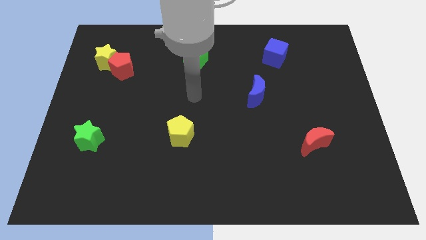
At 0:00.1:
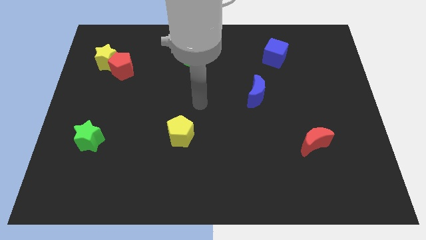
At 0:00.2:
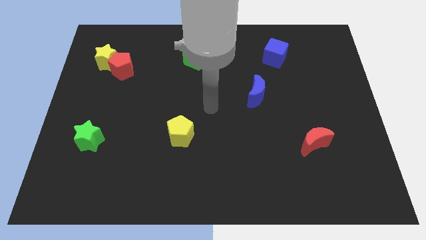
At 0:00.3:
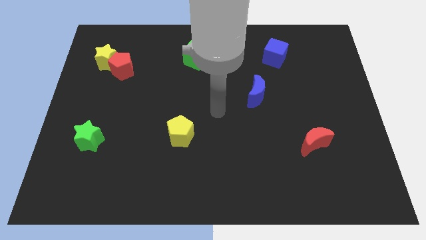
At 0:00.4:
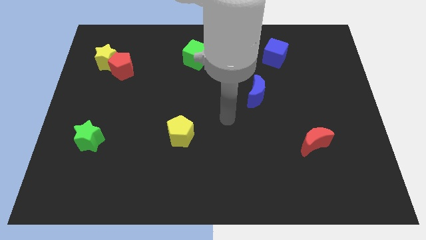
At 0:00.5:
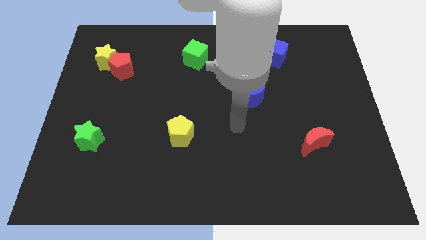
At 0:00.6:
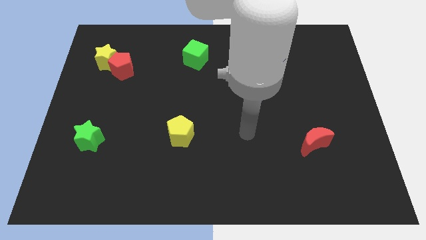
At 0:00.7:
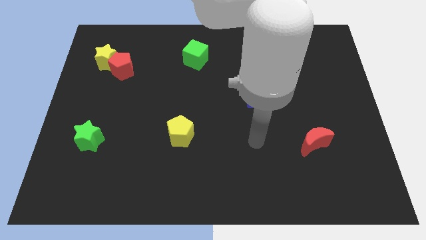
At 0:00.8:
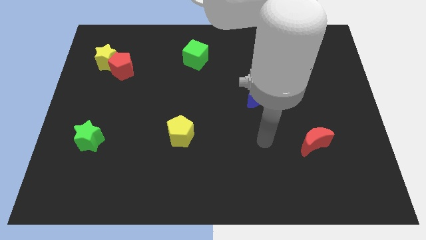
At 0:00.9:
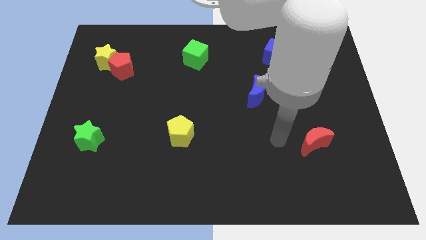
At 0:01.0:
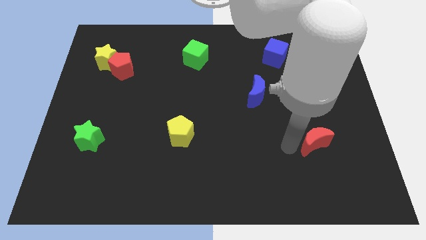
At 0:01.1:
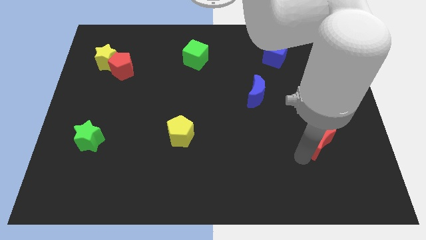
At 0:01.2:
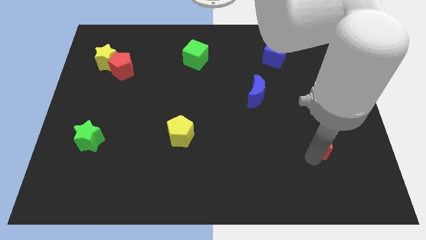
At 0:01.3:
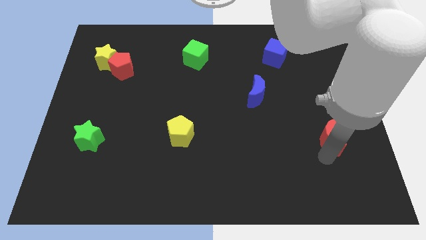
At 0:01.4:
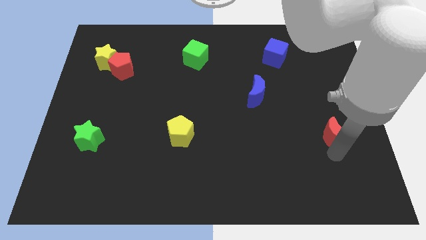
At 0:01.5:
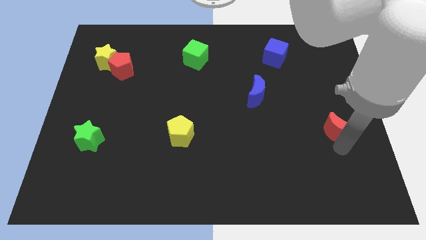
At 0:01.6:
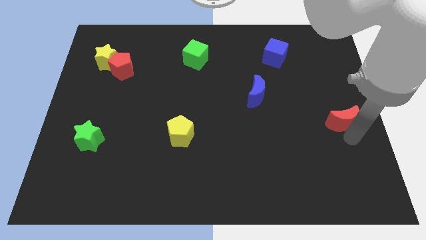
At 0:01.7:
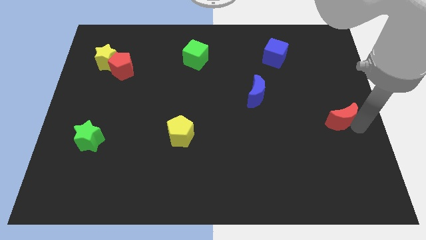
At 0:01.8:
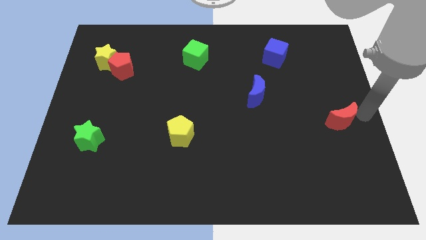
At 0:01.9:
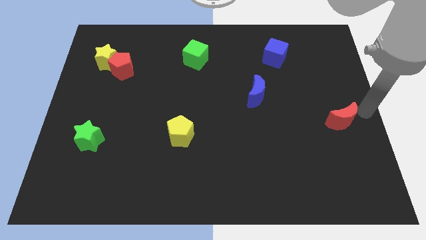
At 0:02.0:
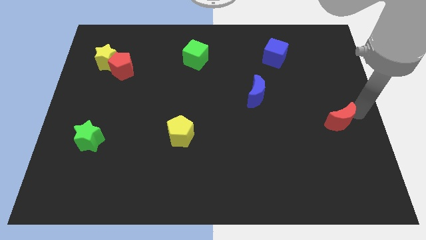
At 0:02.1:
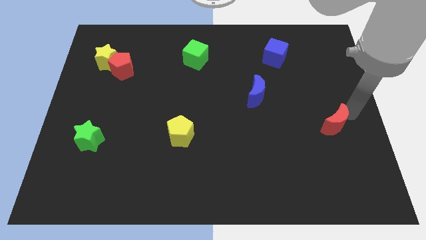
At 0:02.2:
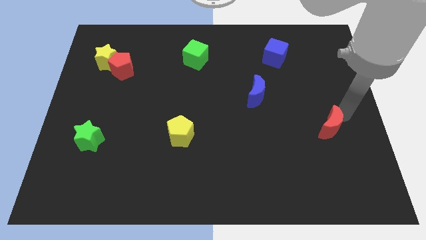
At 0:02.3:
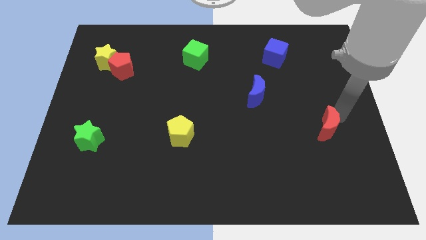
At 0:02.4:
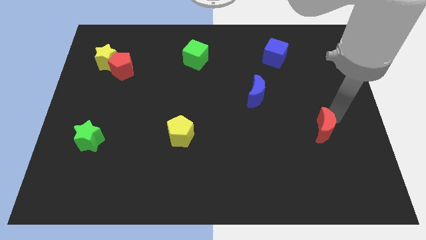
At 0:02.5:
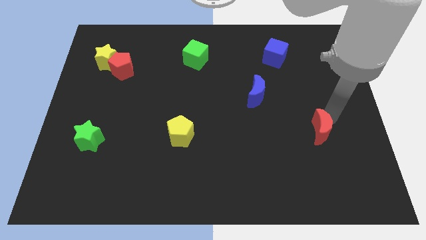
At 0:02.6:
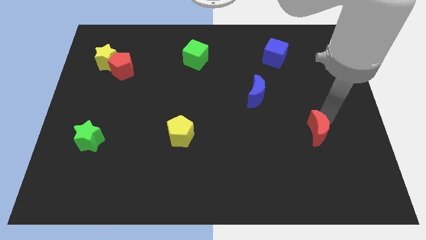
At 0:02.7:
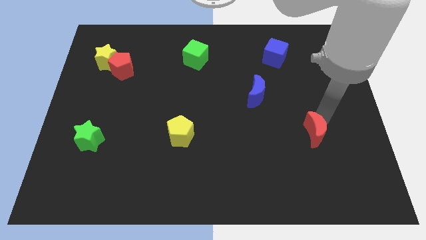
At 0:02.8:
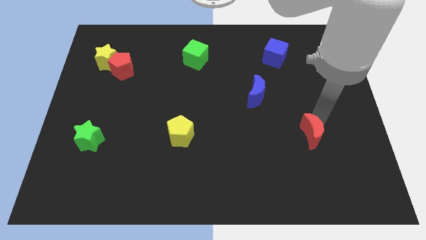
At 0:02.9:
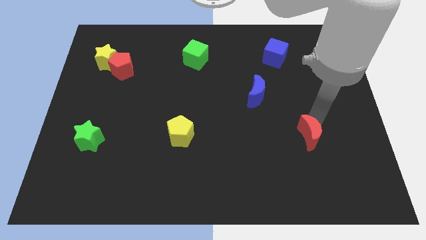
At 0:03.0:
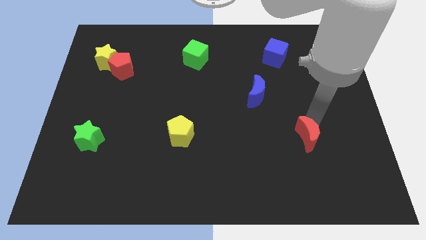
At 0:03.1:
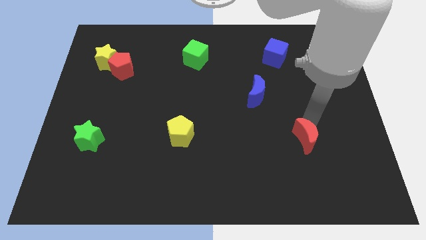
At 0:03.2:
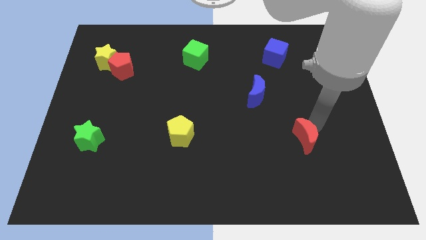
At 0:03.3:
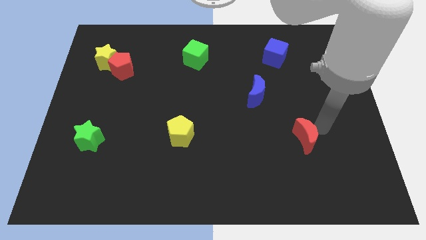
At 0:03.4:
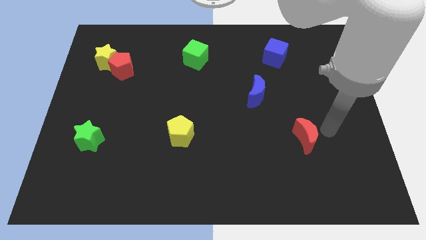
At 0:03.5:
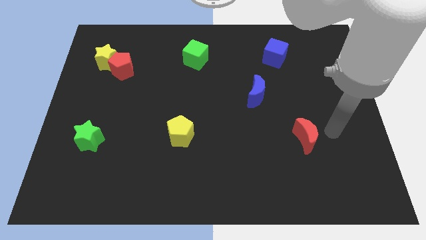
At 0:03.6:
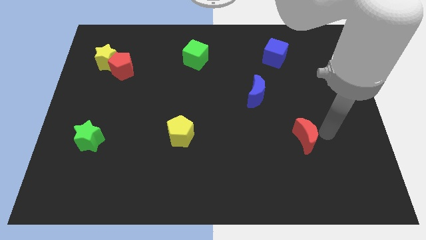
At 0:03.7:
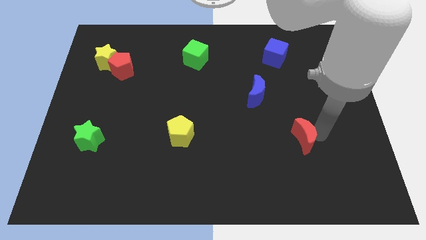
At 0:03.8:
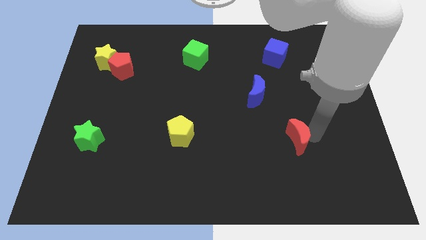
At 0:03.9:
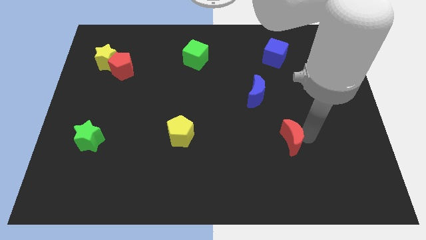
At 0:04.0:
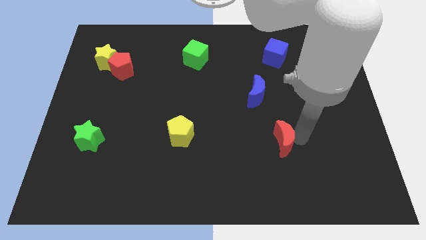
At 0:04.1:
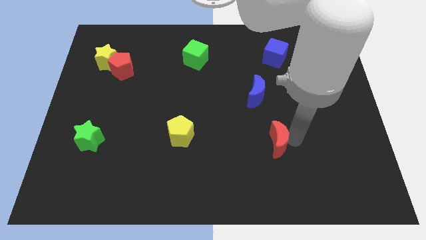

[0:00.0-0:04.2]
slightly push the red moon left

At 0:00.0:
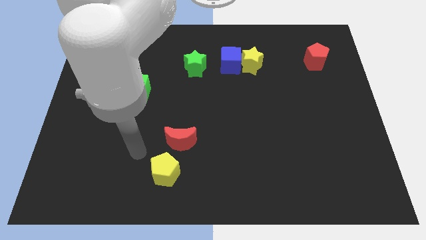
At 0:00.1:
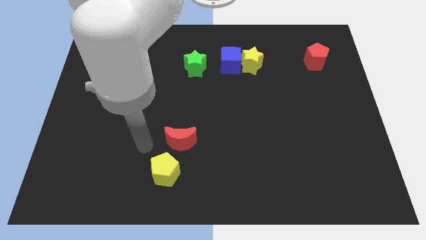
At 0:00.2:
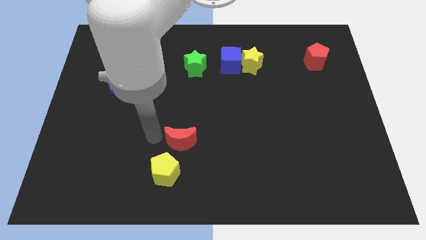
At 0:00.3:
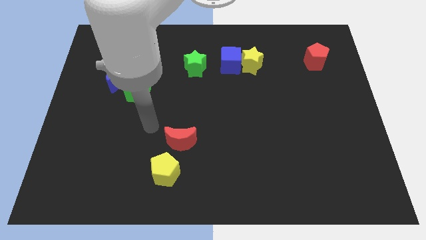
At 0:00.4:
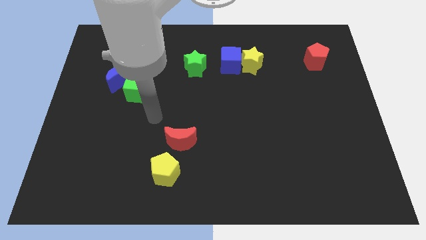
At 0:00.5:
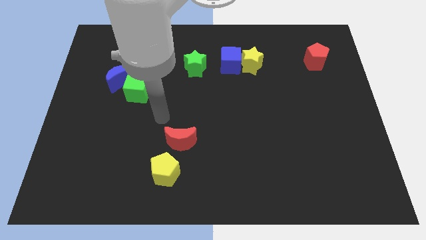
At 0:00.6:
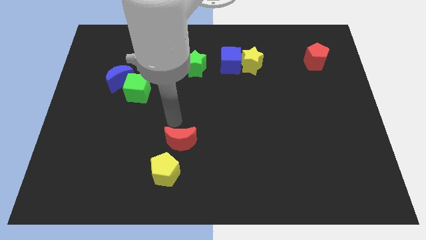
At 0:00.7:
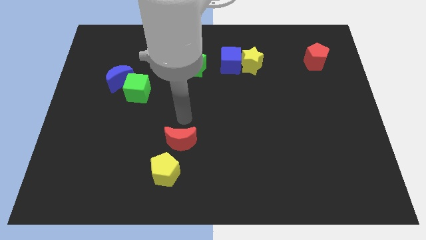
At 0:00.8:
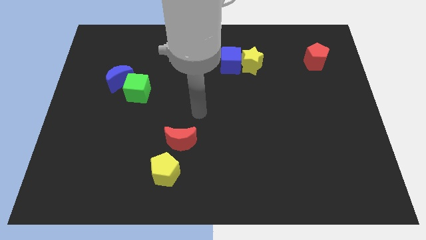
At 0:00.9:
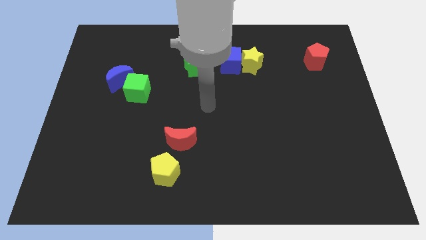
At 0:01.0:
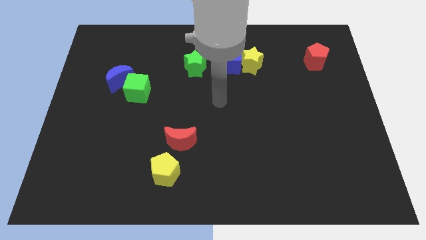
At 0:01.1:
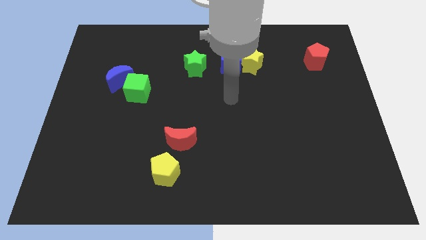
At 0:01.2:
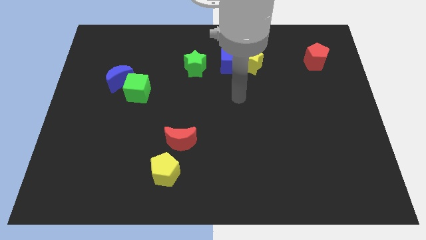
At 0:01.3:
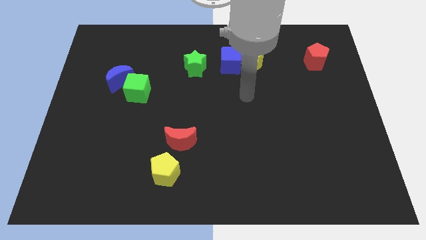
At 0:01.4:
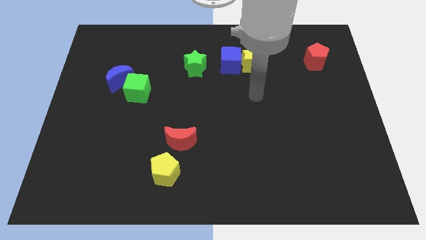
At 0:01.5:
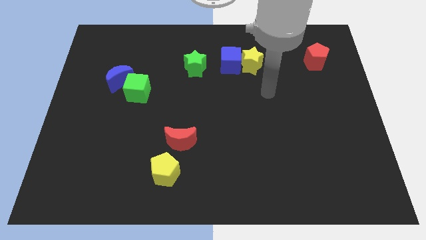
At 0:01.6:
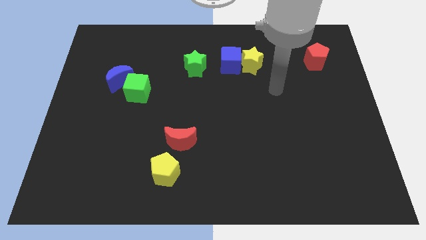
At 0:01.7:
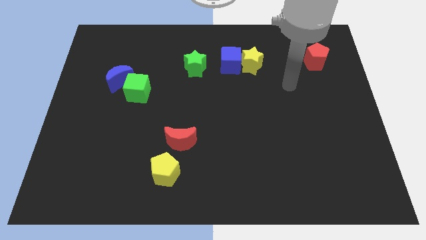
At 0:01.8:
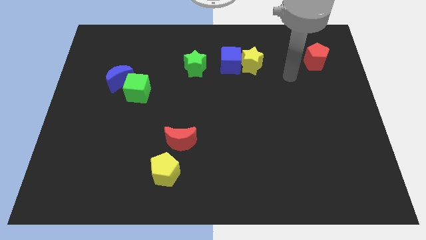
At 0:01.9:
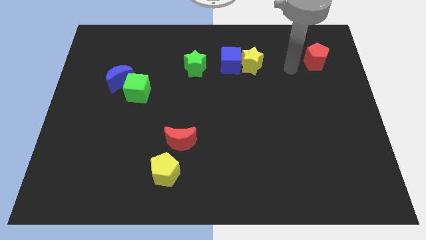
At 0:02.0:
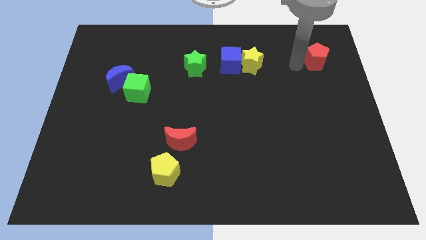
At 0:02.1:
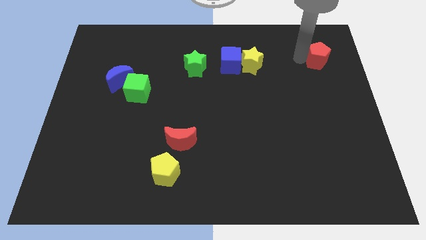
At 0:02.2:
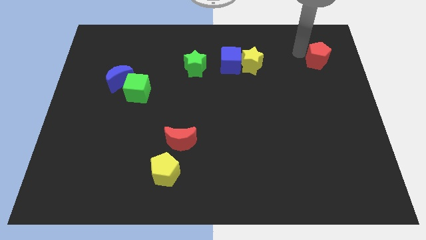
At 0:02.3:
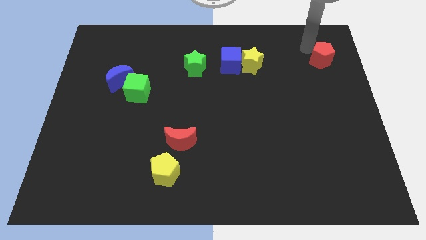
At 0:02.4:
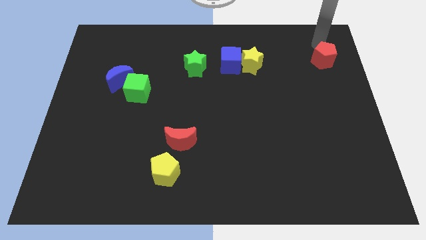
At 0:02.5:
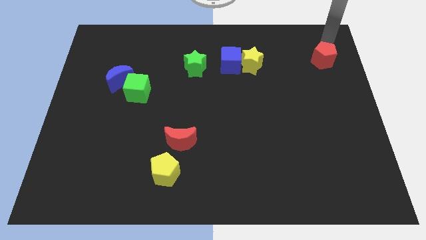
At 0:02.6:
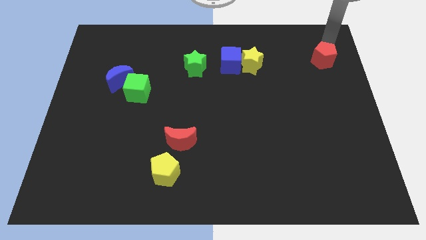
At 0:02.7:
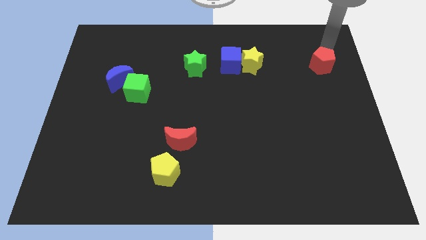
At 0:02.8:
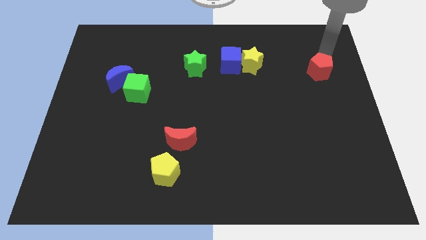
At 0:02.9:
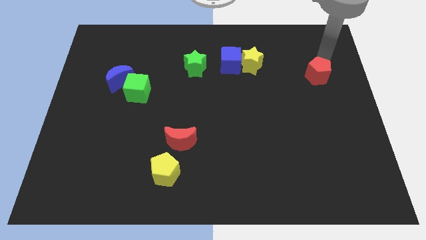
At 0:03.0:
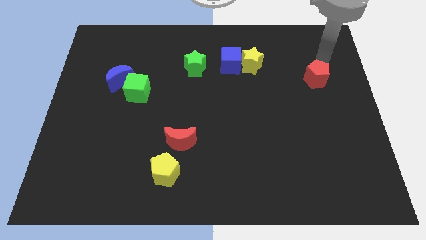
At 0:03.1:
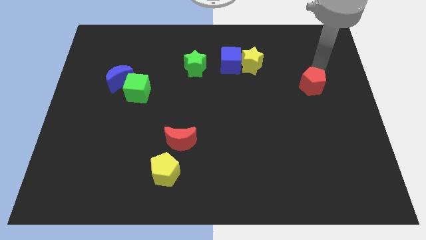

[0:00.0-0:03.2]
slightly move the red pentagon down

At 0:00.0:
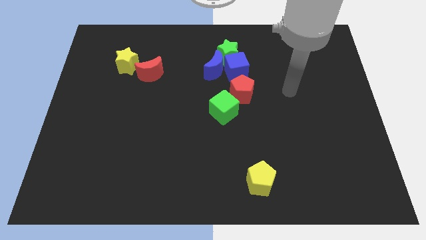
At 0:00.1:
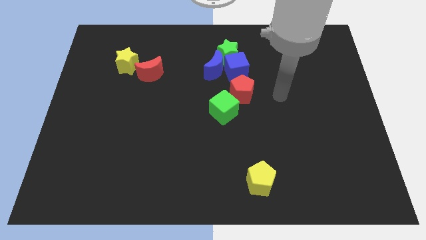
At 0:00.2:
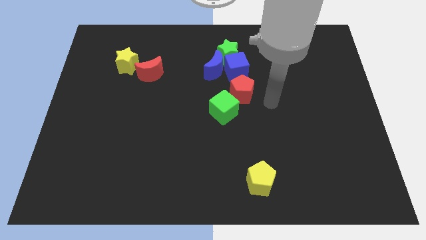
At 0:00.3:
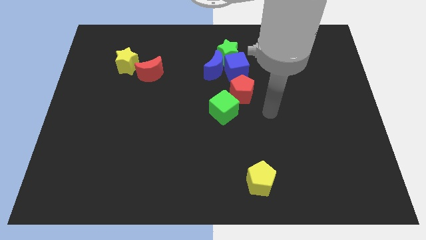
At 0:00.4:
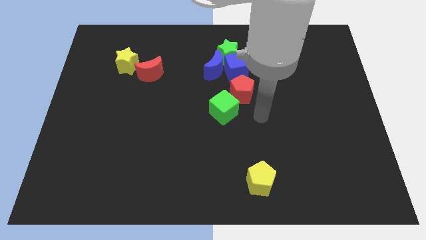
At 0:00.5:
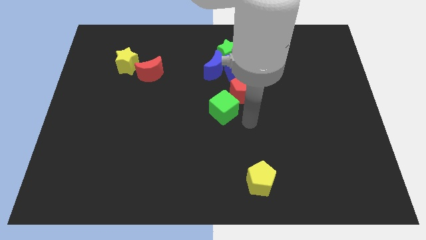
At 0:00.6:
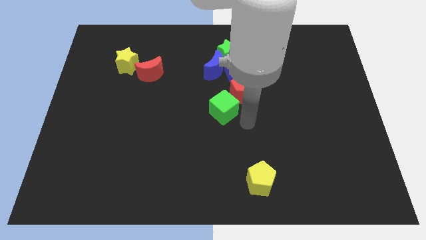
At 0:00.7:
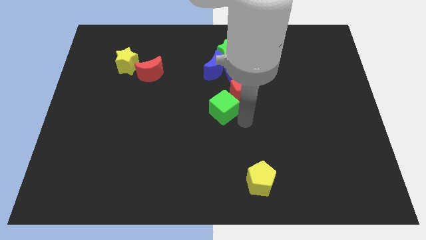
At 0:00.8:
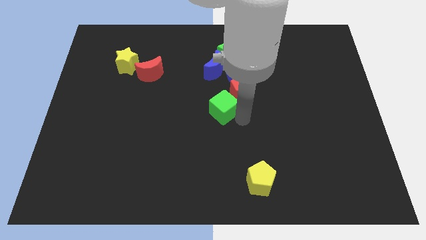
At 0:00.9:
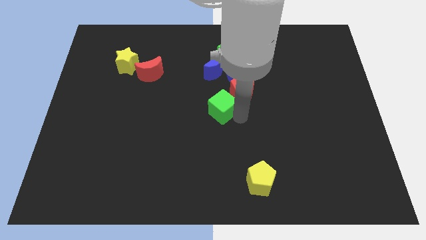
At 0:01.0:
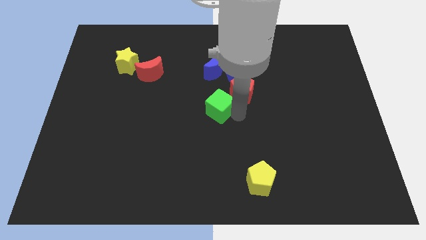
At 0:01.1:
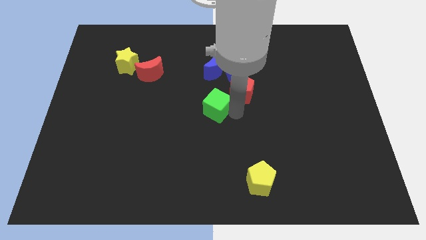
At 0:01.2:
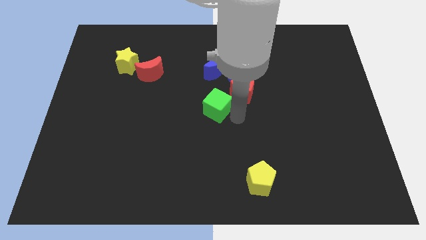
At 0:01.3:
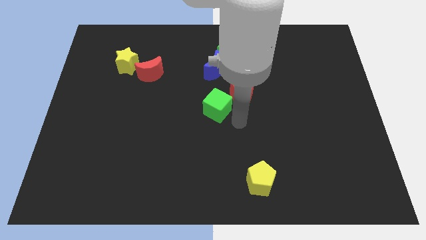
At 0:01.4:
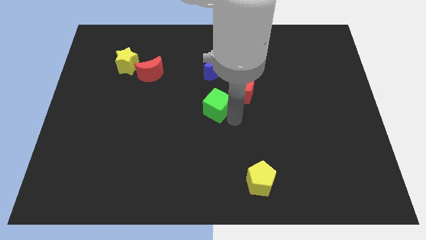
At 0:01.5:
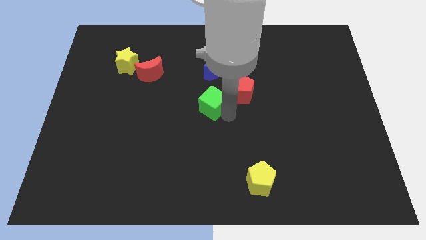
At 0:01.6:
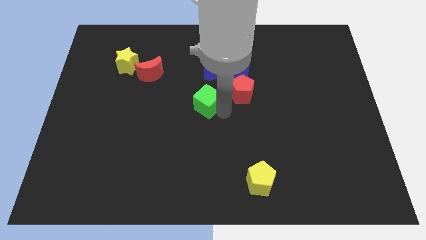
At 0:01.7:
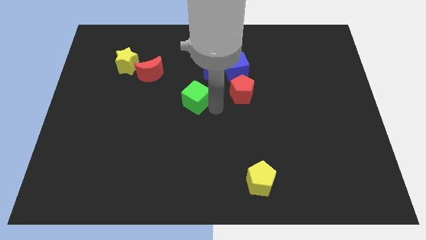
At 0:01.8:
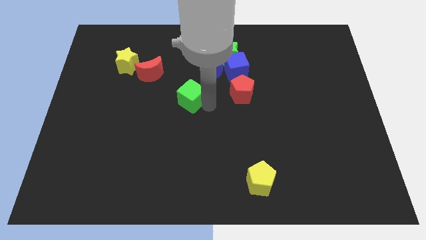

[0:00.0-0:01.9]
slightly push the green cube diagonally up and to the left
